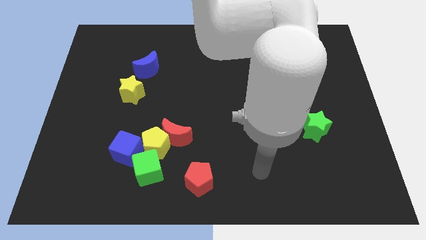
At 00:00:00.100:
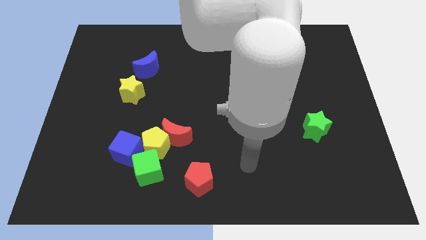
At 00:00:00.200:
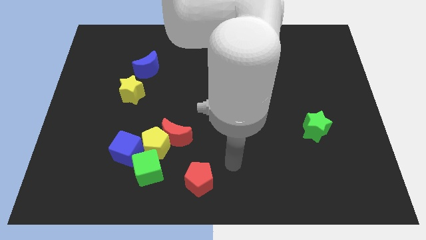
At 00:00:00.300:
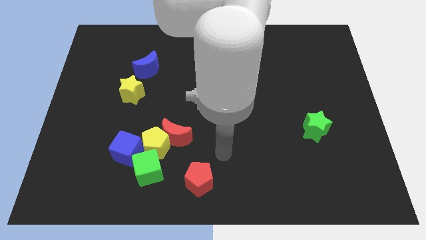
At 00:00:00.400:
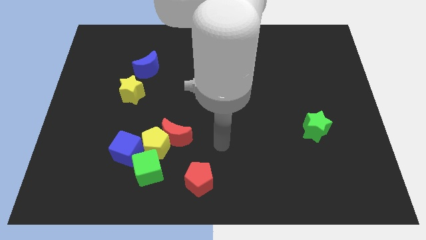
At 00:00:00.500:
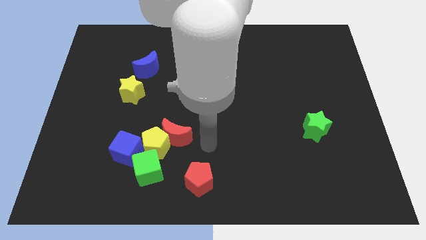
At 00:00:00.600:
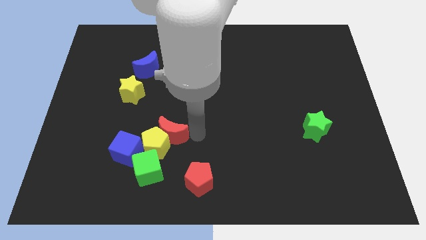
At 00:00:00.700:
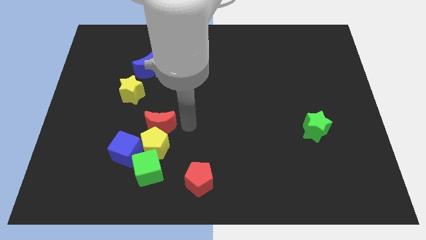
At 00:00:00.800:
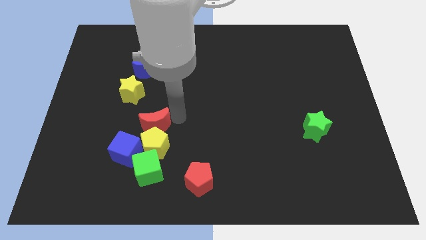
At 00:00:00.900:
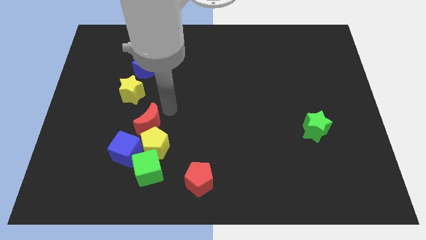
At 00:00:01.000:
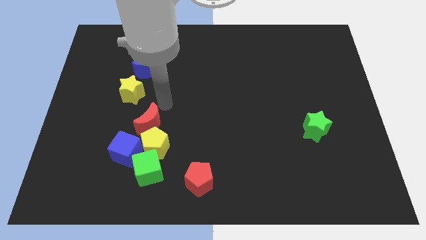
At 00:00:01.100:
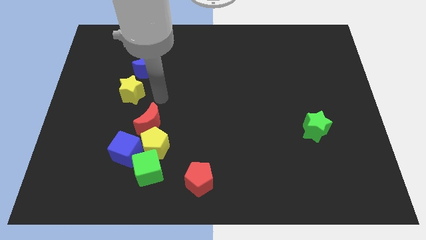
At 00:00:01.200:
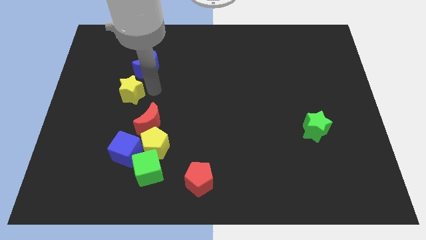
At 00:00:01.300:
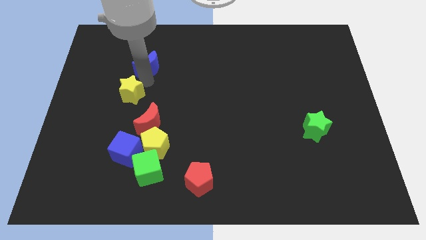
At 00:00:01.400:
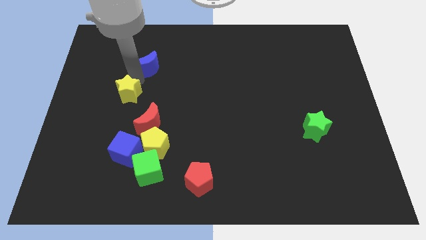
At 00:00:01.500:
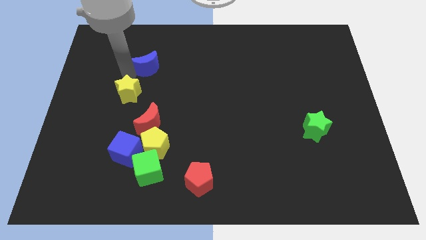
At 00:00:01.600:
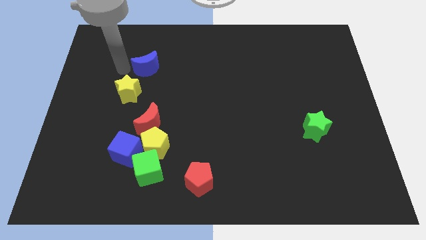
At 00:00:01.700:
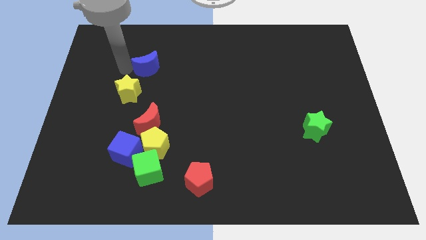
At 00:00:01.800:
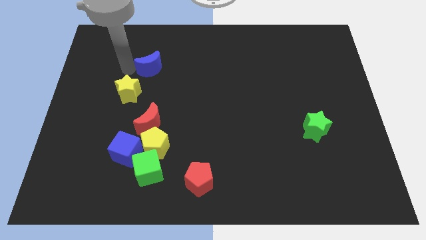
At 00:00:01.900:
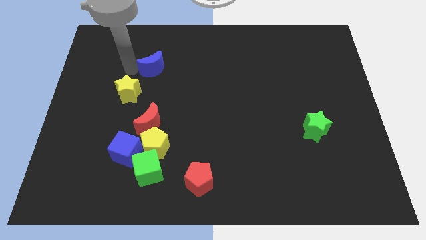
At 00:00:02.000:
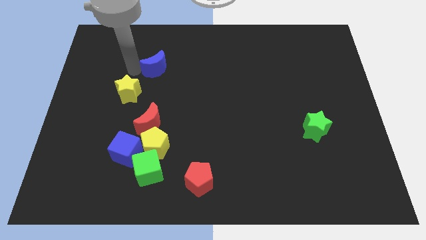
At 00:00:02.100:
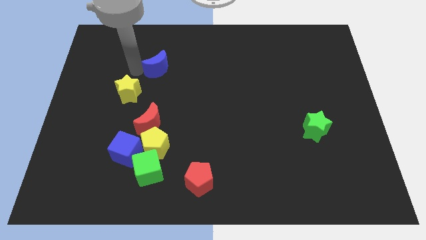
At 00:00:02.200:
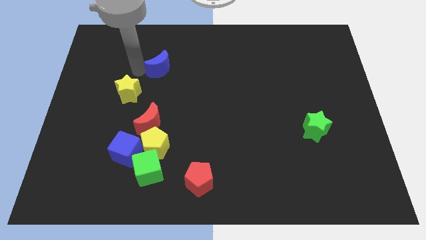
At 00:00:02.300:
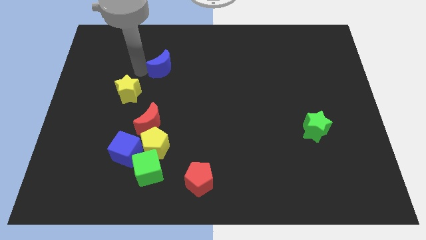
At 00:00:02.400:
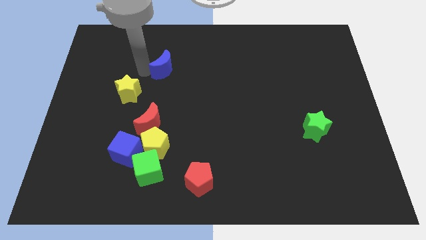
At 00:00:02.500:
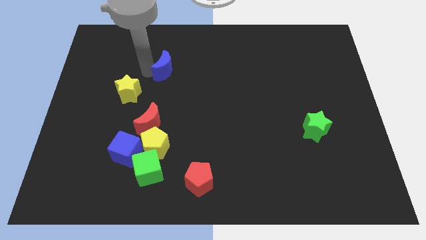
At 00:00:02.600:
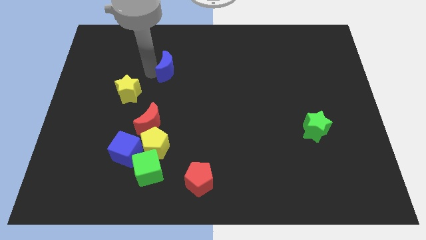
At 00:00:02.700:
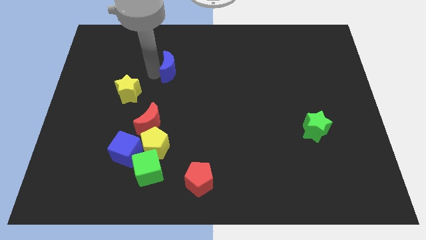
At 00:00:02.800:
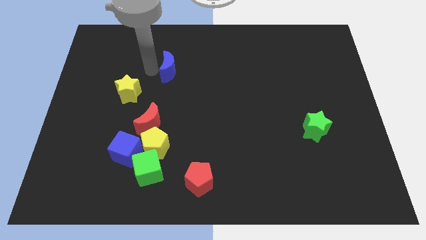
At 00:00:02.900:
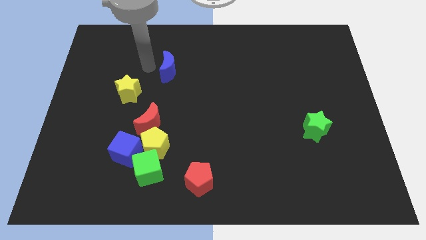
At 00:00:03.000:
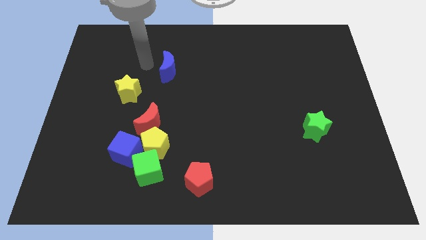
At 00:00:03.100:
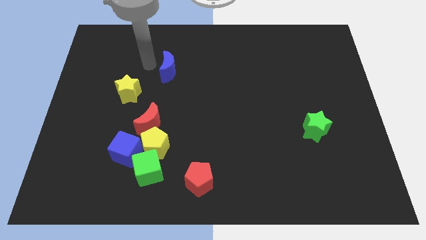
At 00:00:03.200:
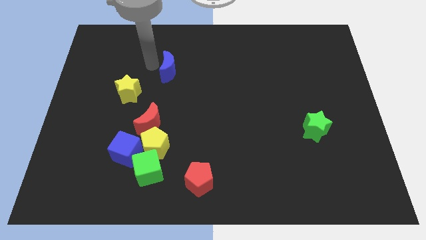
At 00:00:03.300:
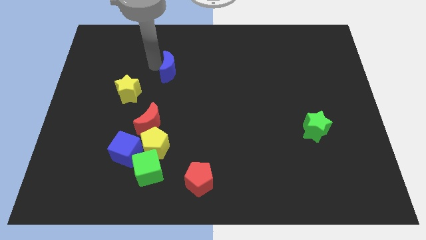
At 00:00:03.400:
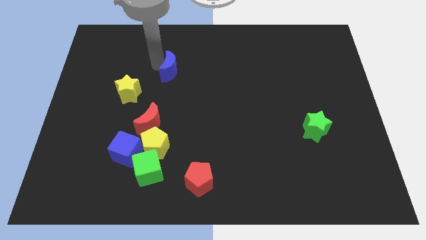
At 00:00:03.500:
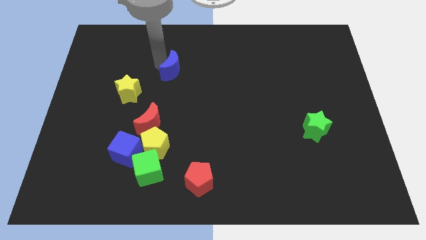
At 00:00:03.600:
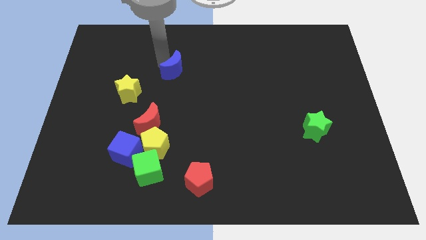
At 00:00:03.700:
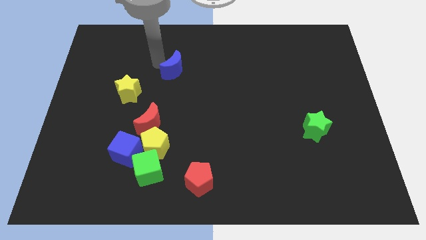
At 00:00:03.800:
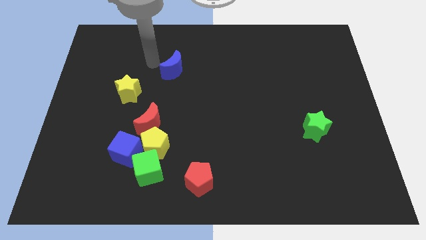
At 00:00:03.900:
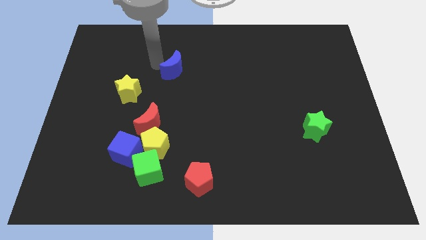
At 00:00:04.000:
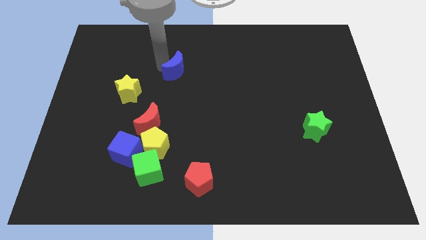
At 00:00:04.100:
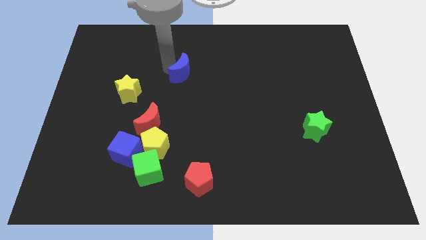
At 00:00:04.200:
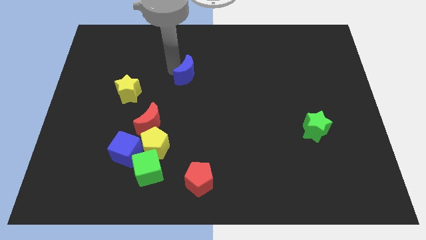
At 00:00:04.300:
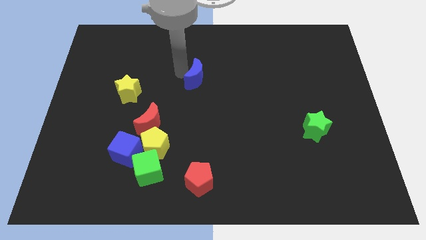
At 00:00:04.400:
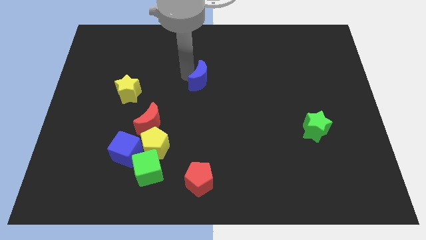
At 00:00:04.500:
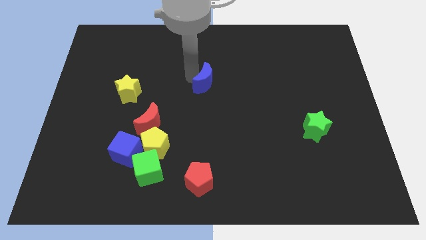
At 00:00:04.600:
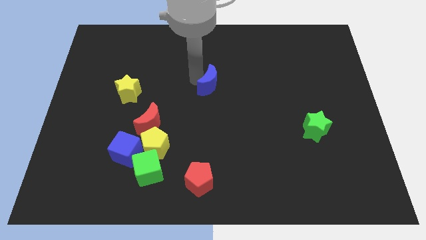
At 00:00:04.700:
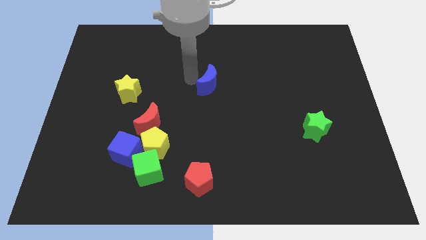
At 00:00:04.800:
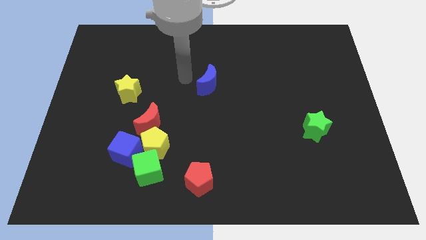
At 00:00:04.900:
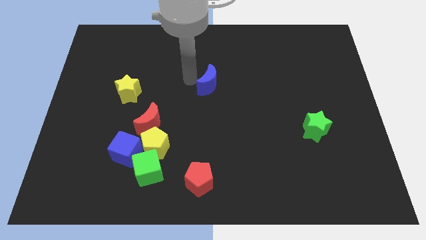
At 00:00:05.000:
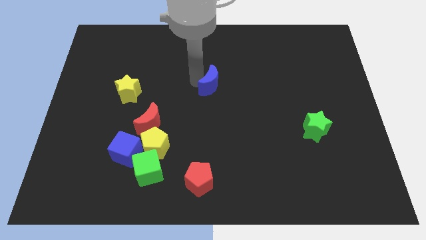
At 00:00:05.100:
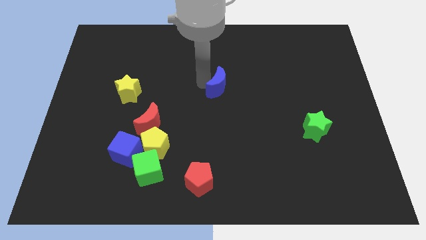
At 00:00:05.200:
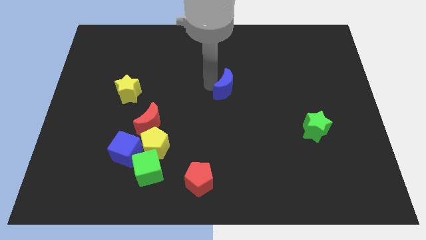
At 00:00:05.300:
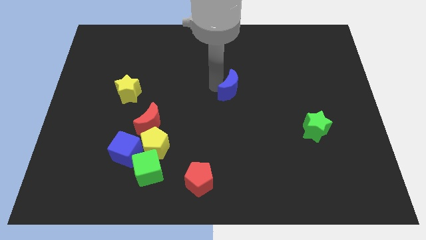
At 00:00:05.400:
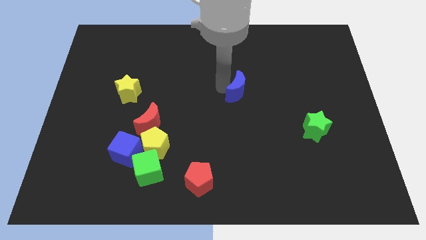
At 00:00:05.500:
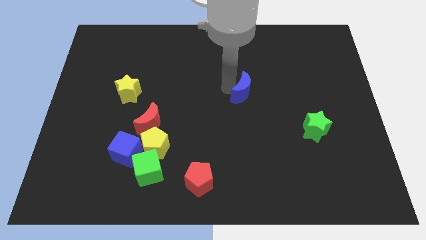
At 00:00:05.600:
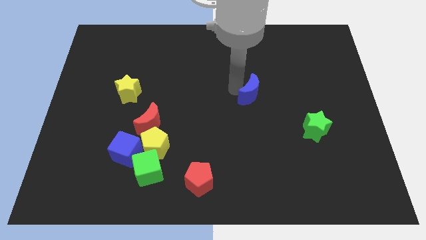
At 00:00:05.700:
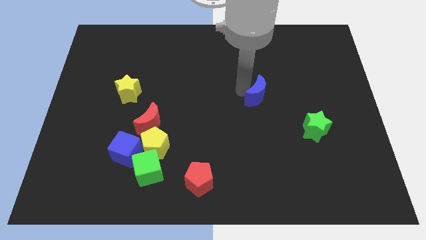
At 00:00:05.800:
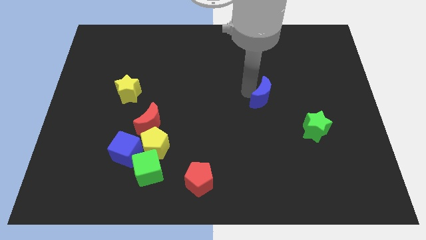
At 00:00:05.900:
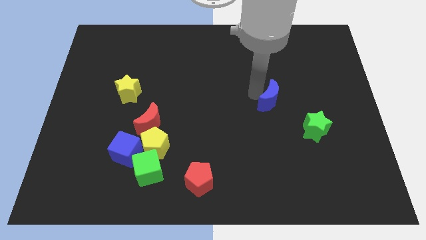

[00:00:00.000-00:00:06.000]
push the blue moon diagonally up and to the left of the green star
